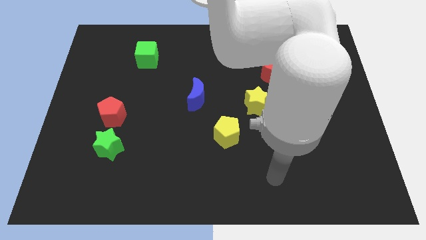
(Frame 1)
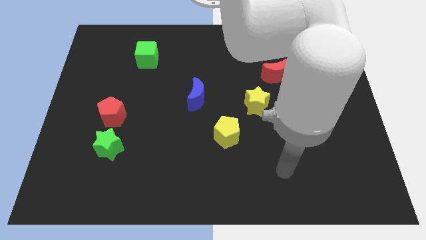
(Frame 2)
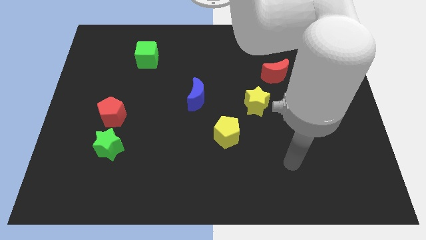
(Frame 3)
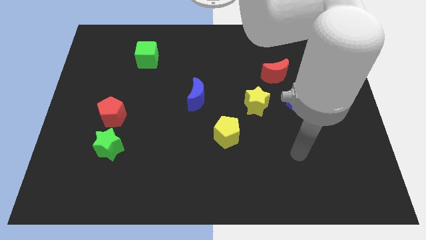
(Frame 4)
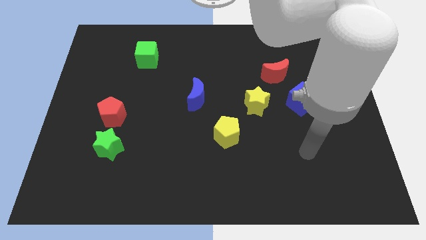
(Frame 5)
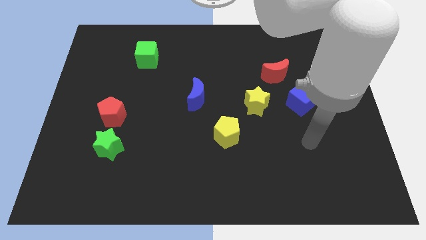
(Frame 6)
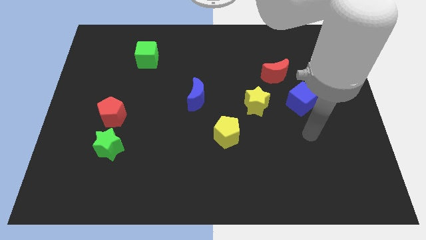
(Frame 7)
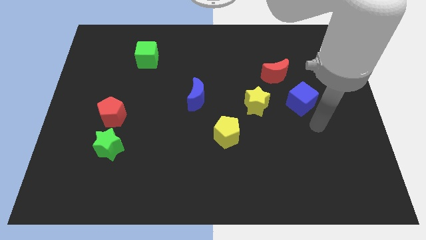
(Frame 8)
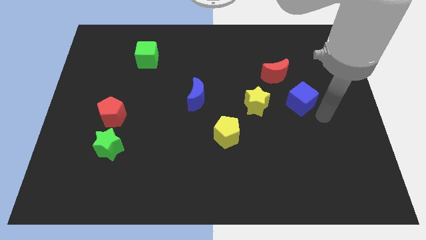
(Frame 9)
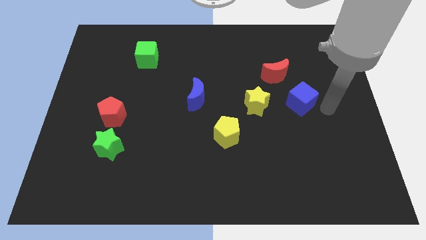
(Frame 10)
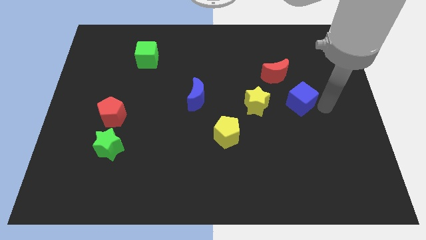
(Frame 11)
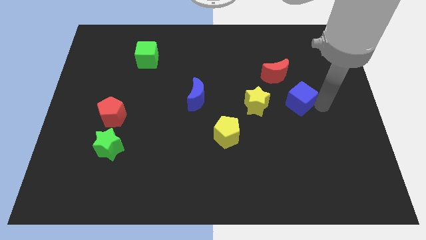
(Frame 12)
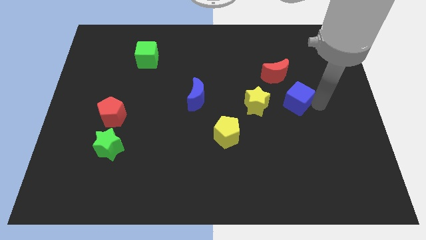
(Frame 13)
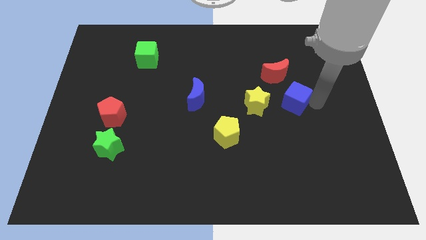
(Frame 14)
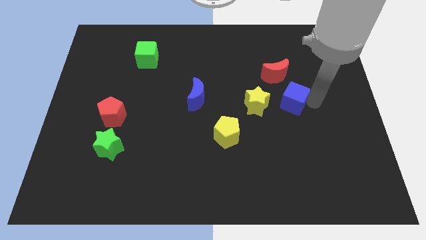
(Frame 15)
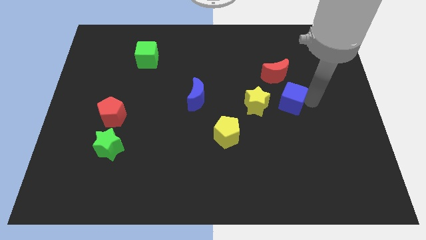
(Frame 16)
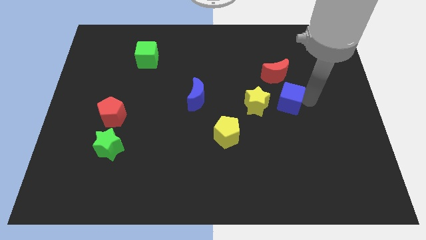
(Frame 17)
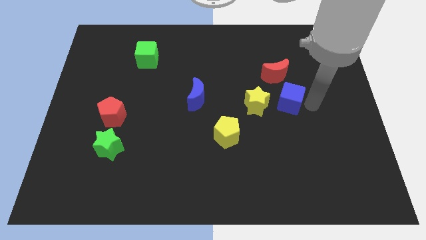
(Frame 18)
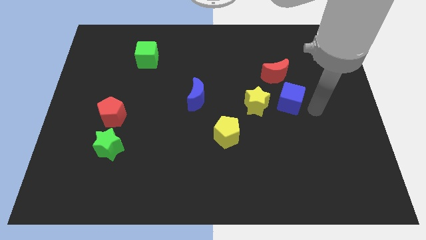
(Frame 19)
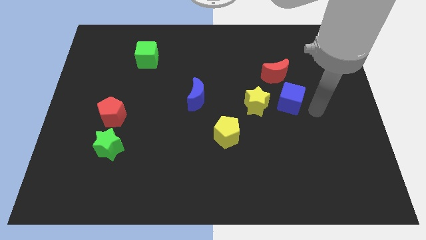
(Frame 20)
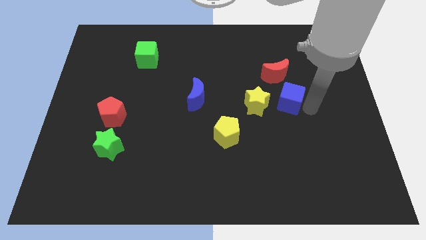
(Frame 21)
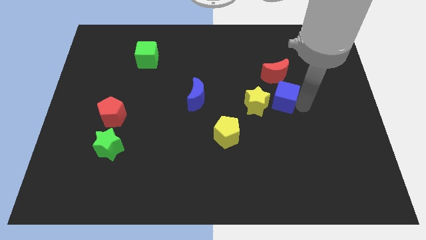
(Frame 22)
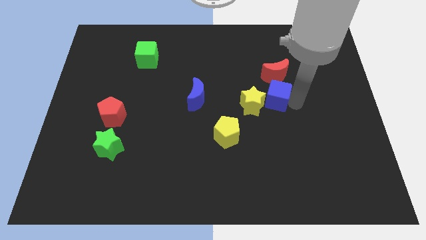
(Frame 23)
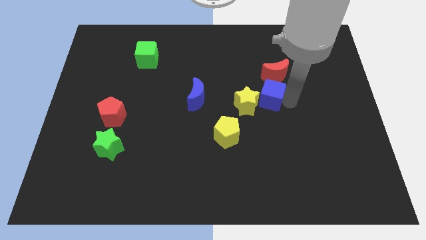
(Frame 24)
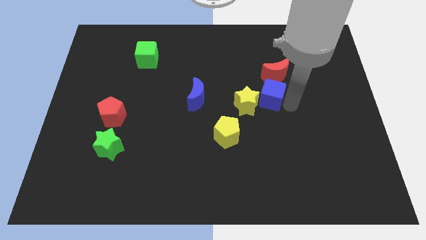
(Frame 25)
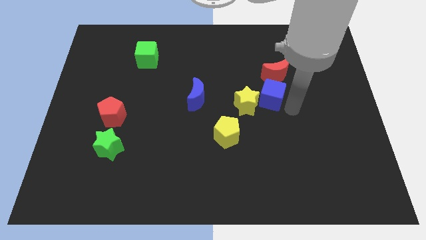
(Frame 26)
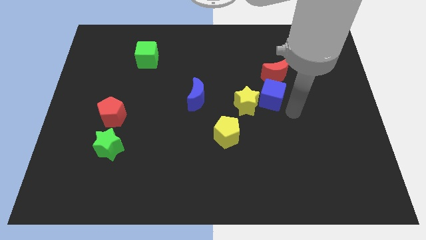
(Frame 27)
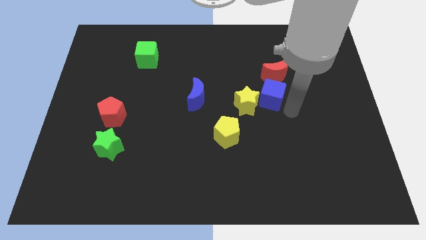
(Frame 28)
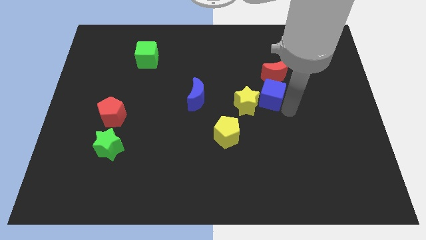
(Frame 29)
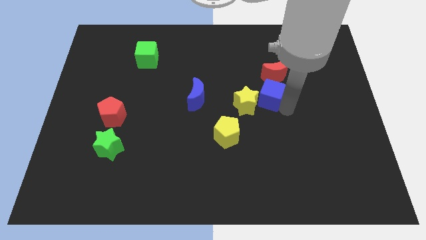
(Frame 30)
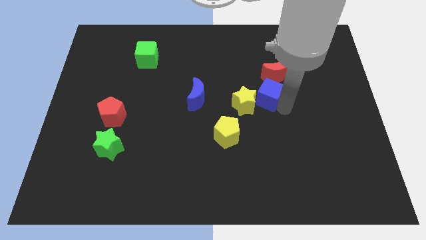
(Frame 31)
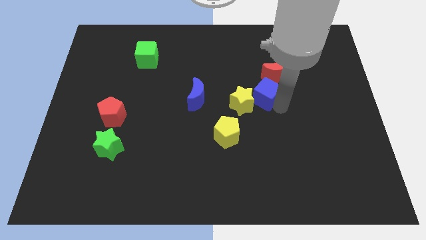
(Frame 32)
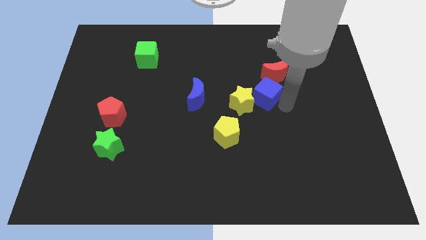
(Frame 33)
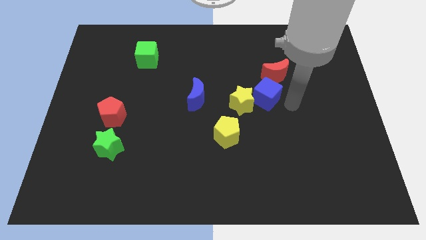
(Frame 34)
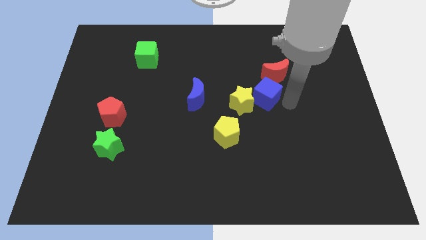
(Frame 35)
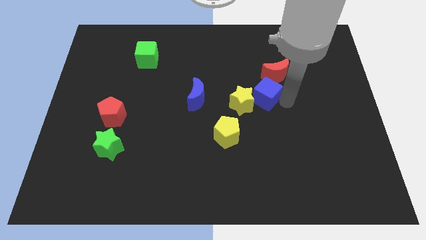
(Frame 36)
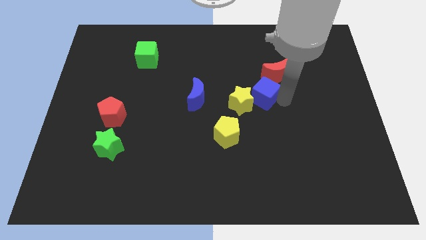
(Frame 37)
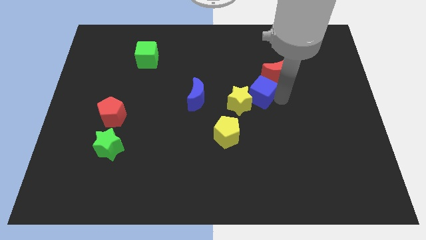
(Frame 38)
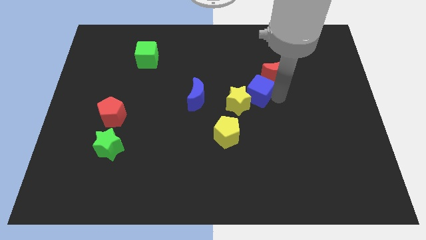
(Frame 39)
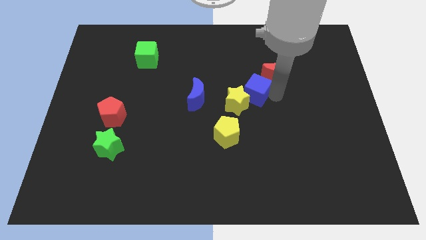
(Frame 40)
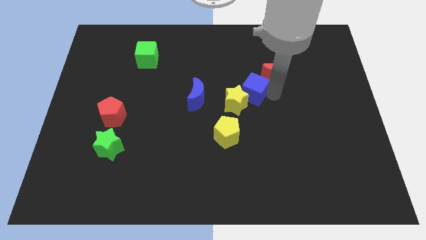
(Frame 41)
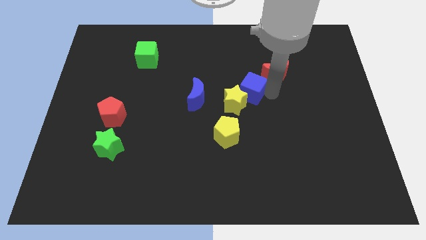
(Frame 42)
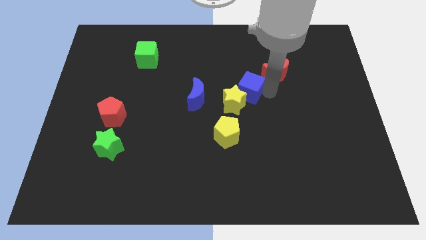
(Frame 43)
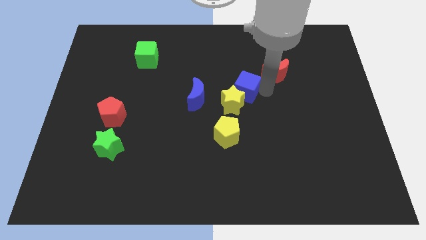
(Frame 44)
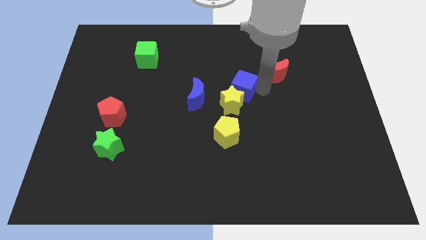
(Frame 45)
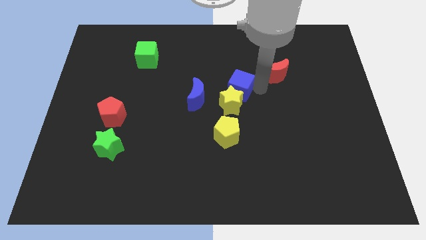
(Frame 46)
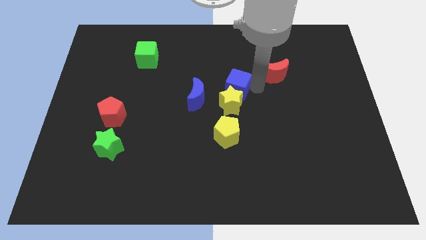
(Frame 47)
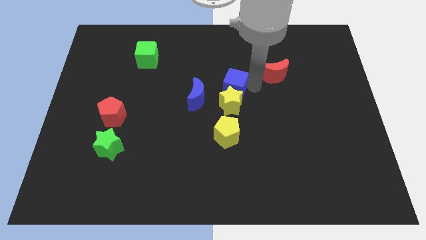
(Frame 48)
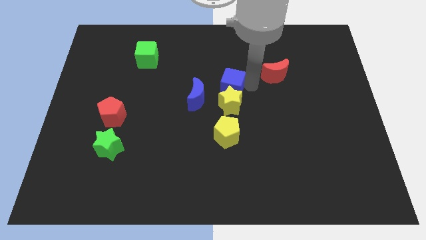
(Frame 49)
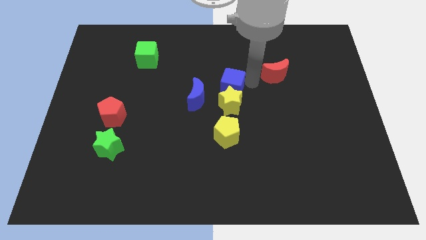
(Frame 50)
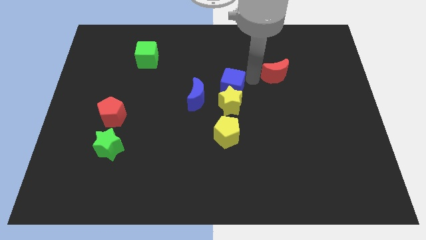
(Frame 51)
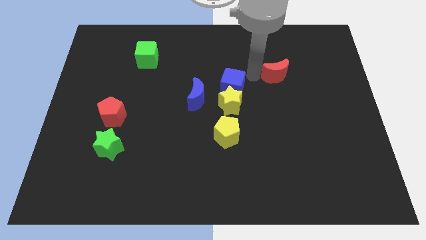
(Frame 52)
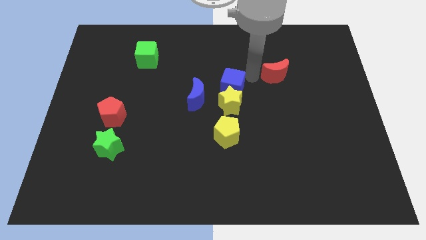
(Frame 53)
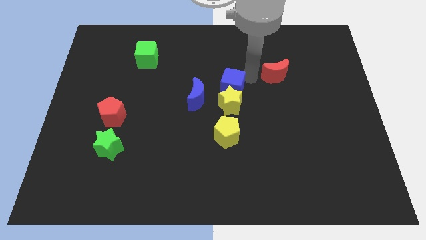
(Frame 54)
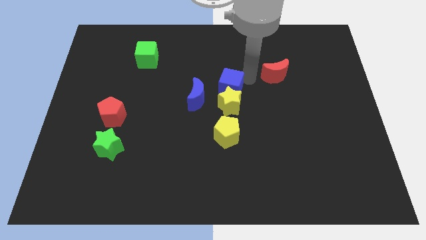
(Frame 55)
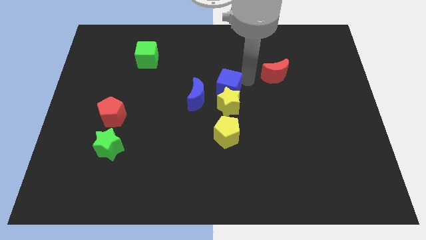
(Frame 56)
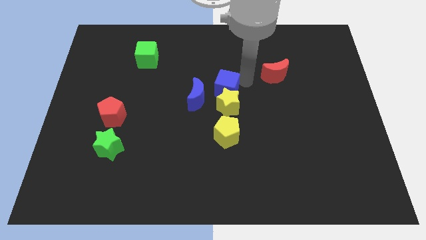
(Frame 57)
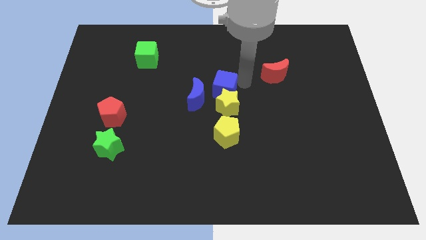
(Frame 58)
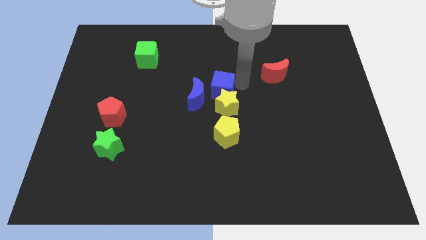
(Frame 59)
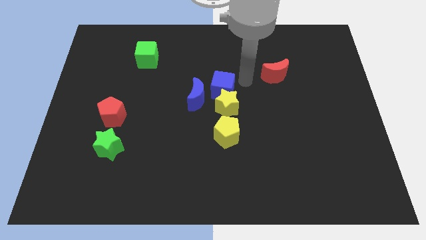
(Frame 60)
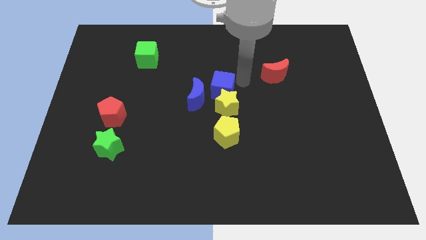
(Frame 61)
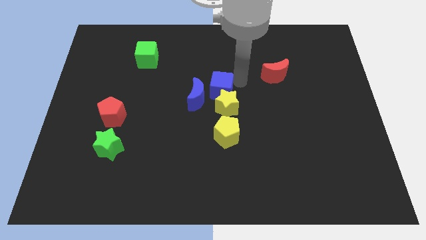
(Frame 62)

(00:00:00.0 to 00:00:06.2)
push the blue cube close to the blue moon
